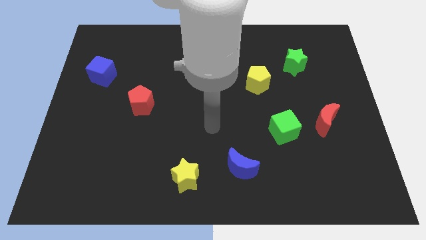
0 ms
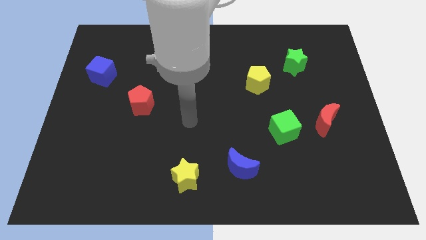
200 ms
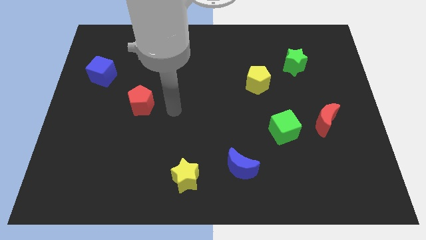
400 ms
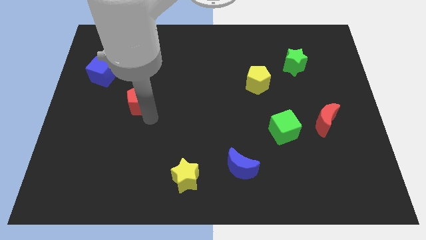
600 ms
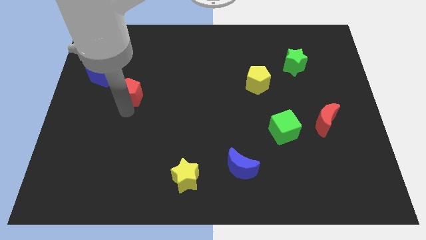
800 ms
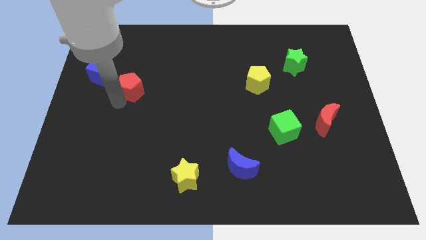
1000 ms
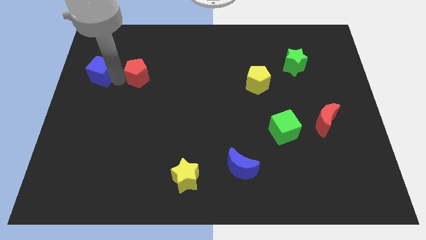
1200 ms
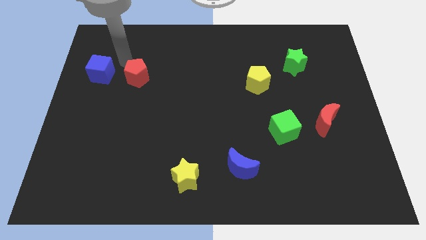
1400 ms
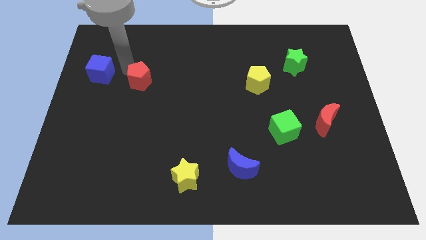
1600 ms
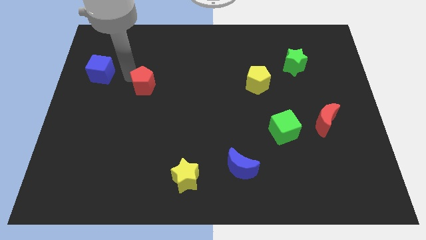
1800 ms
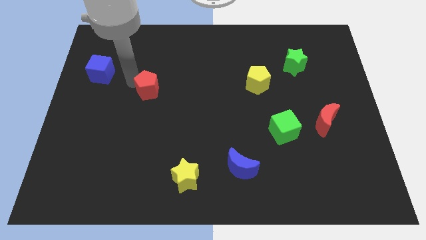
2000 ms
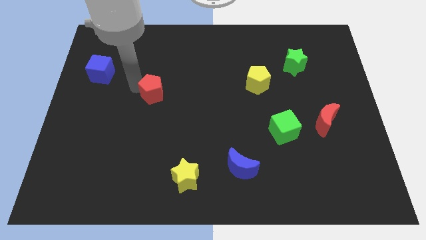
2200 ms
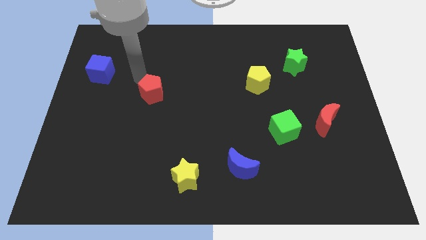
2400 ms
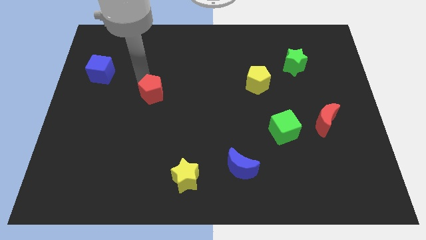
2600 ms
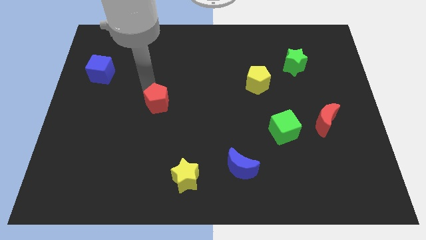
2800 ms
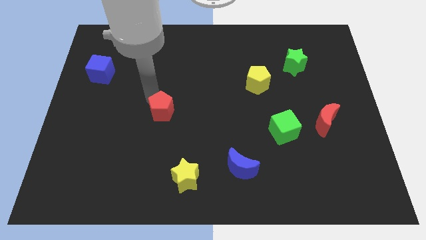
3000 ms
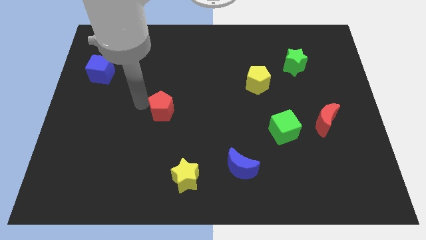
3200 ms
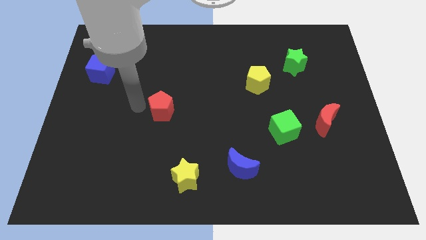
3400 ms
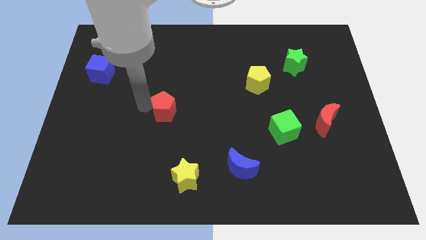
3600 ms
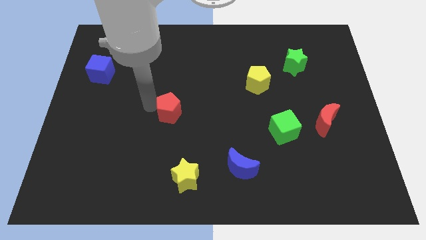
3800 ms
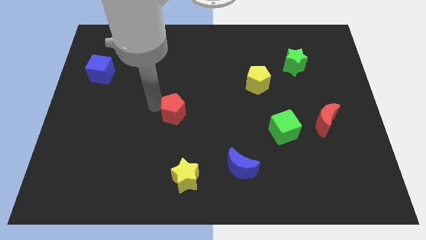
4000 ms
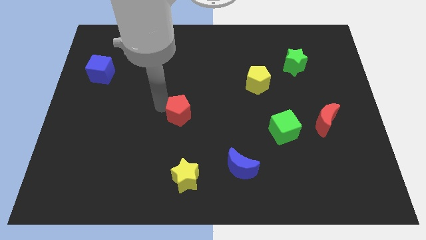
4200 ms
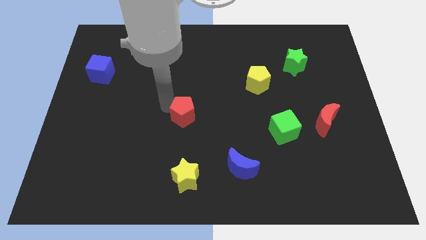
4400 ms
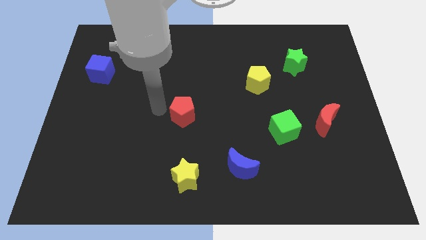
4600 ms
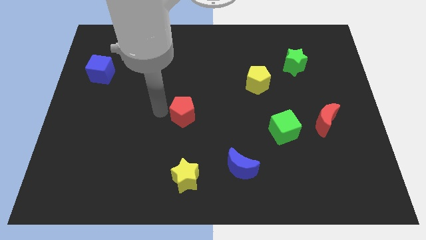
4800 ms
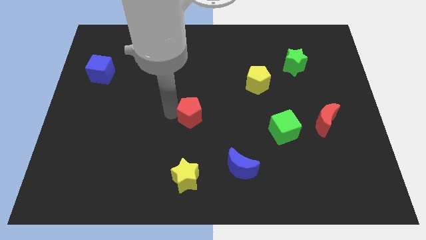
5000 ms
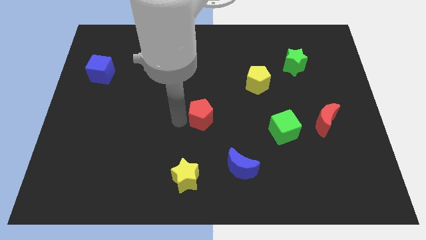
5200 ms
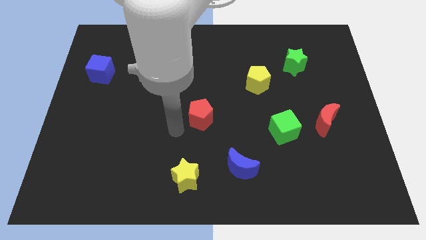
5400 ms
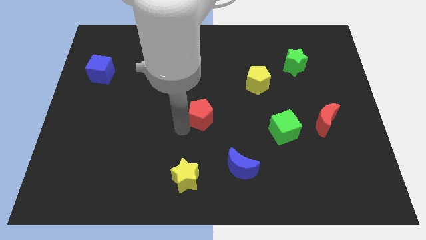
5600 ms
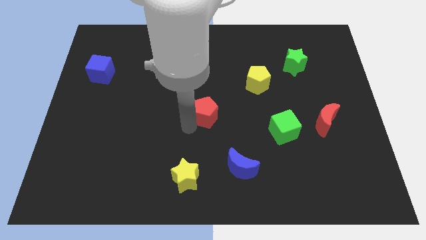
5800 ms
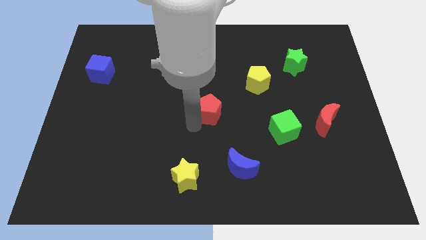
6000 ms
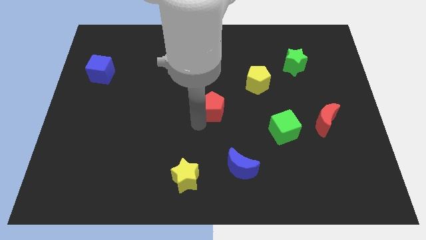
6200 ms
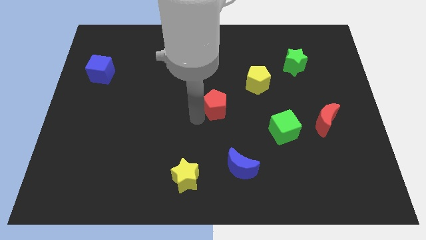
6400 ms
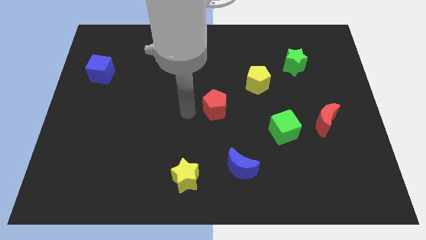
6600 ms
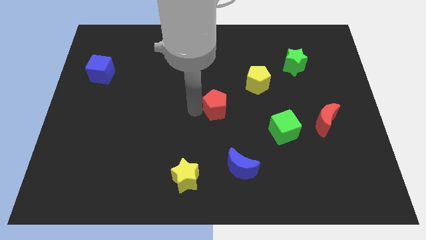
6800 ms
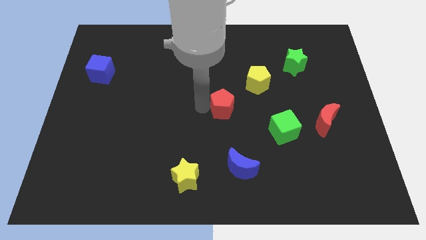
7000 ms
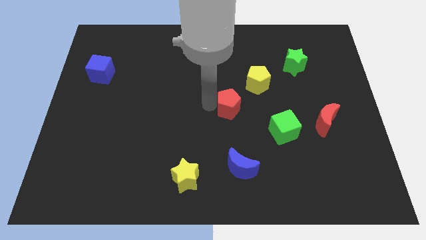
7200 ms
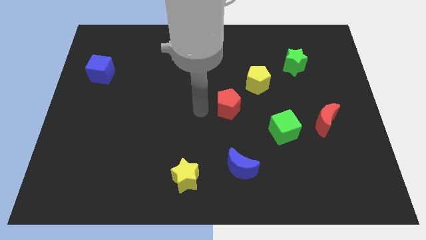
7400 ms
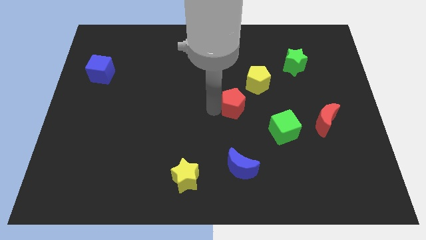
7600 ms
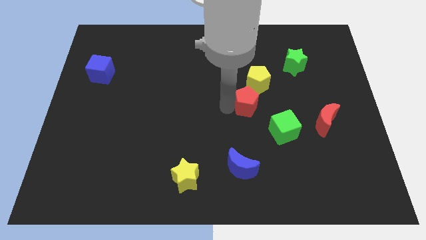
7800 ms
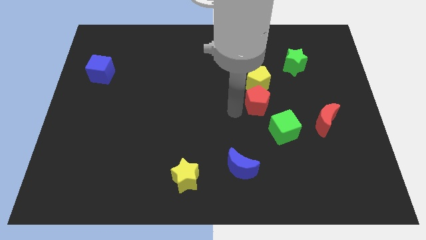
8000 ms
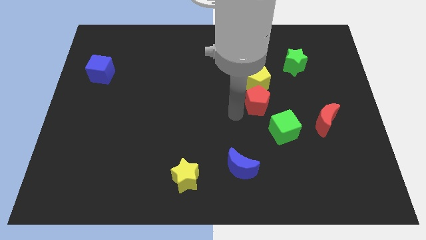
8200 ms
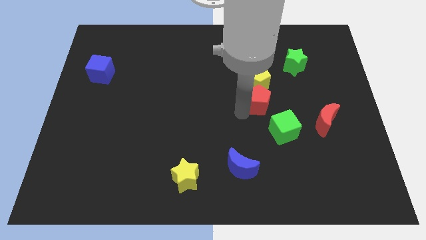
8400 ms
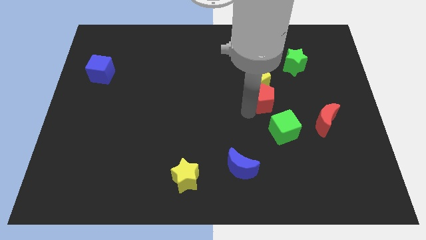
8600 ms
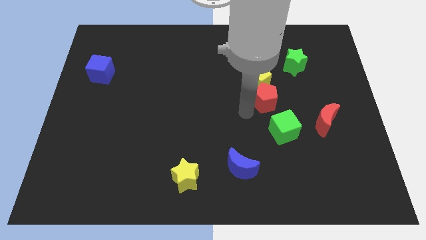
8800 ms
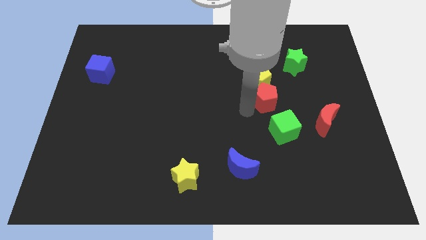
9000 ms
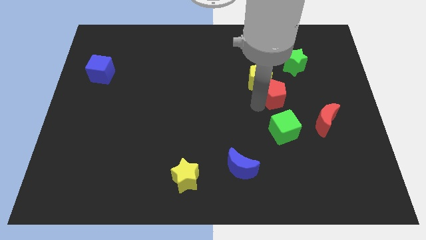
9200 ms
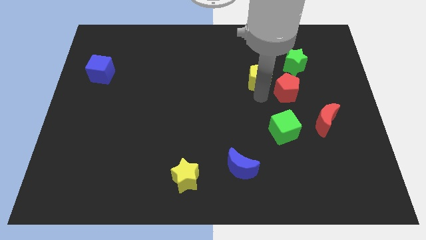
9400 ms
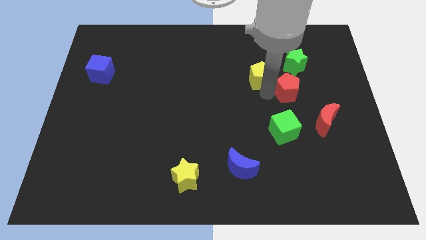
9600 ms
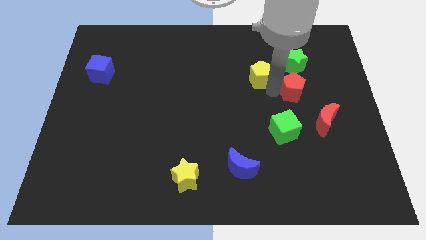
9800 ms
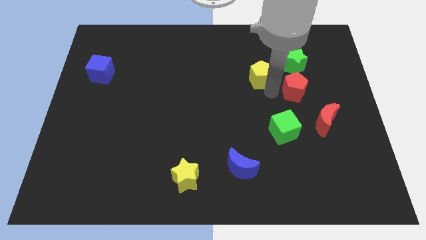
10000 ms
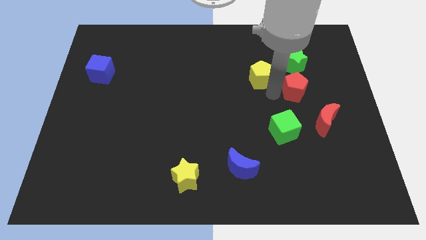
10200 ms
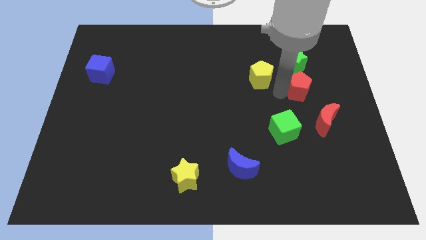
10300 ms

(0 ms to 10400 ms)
put the red pentagon to the top side of the red moon

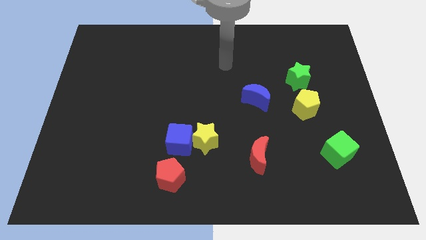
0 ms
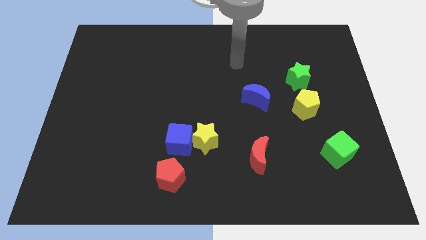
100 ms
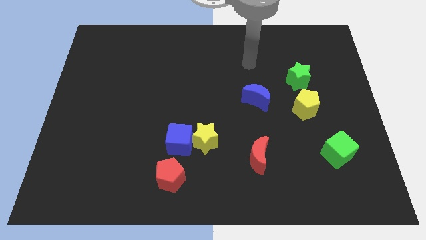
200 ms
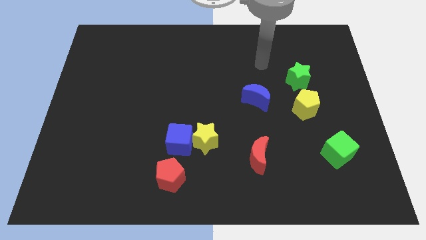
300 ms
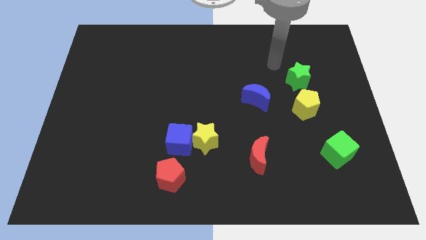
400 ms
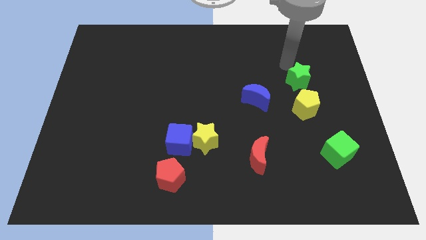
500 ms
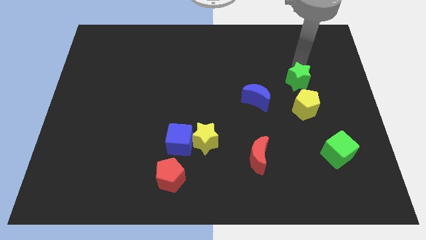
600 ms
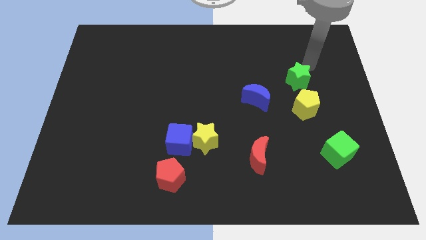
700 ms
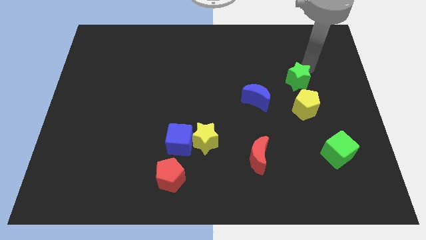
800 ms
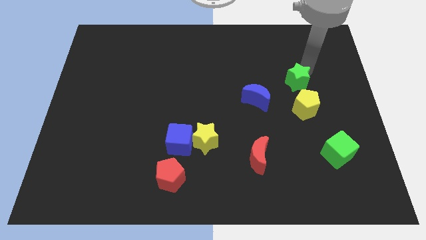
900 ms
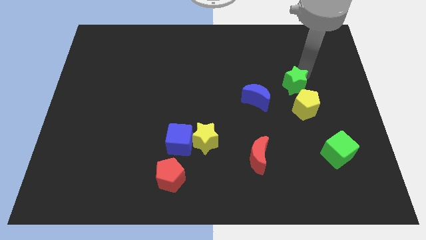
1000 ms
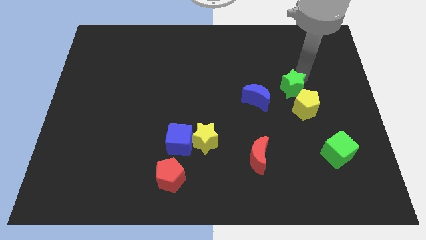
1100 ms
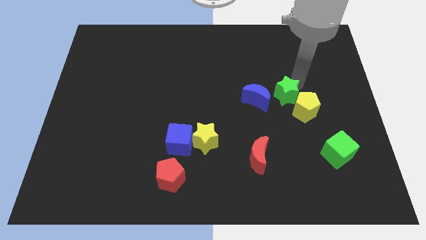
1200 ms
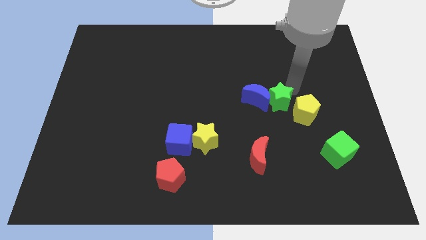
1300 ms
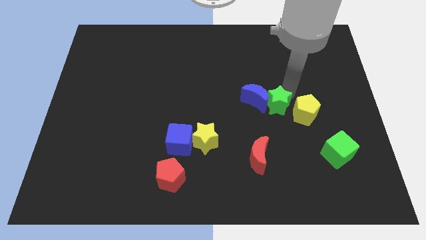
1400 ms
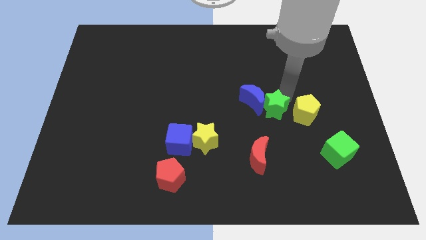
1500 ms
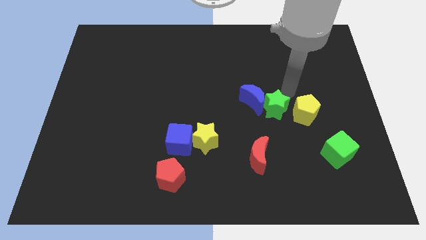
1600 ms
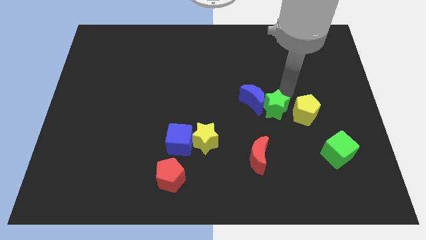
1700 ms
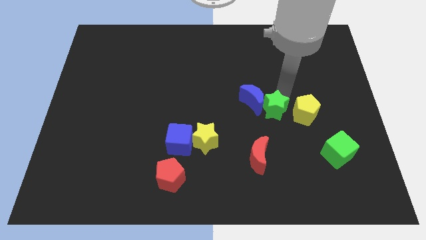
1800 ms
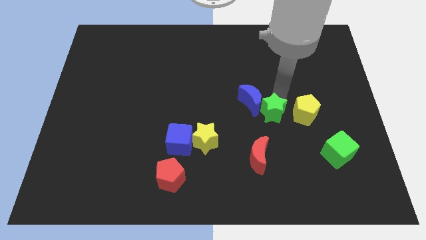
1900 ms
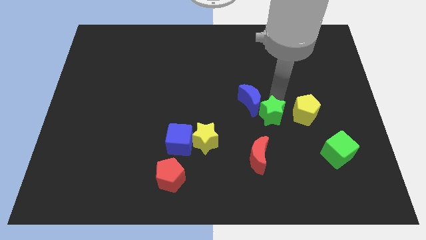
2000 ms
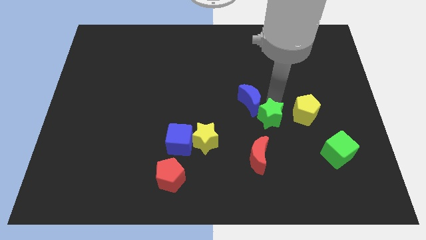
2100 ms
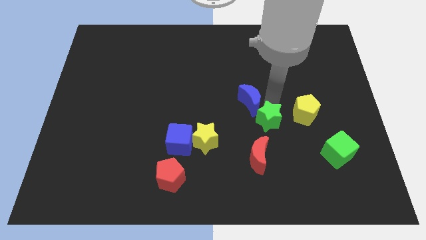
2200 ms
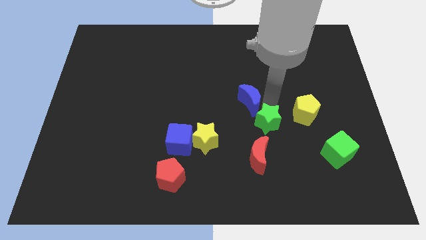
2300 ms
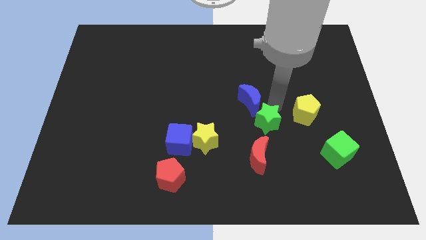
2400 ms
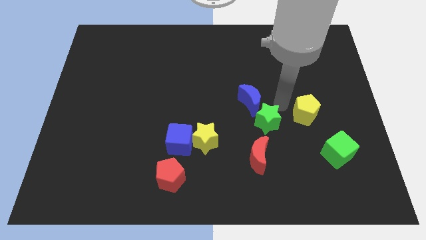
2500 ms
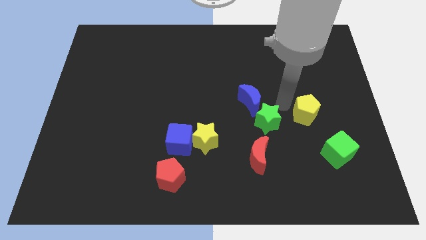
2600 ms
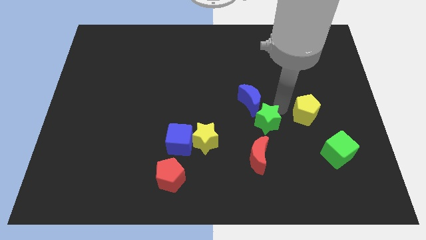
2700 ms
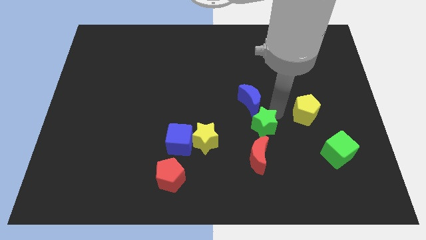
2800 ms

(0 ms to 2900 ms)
move the green star just right of the yellow star
